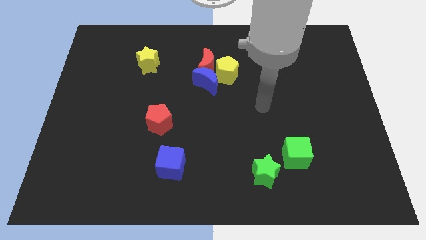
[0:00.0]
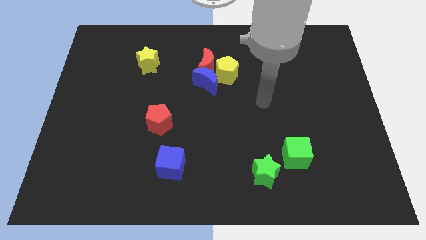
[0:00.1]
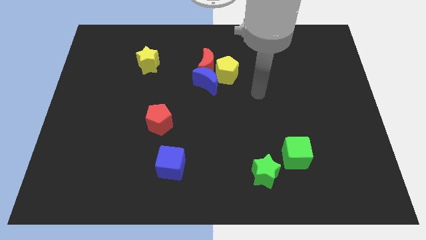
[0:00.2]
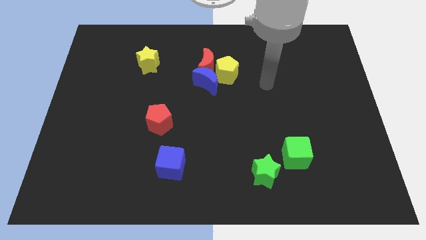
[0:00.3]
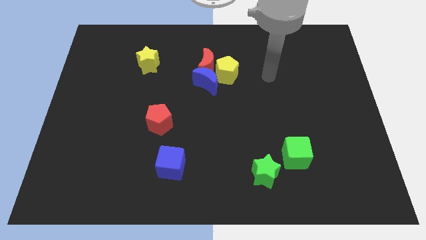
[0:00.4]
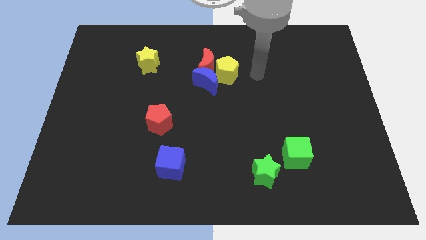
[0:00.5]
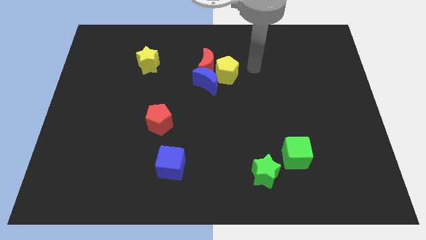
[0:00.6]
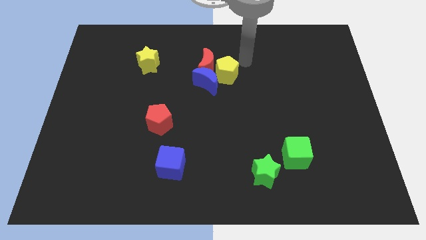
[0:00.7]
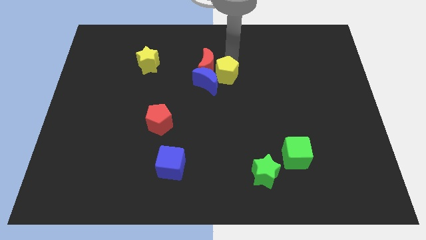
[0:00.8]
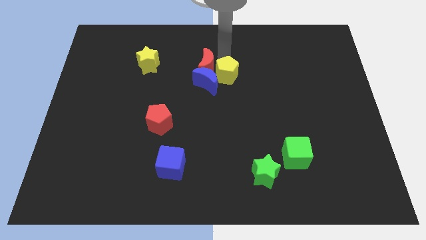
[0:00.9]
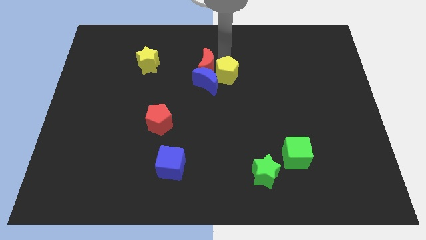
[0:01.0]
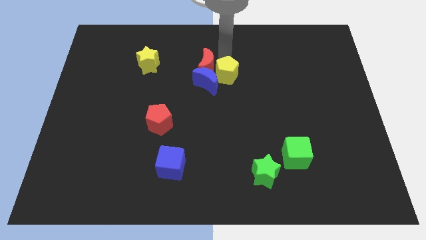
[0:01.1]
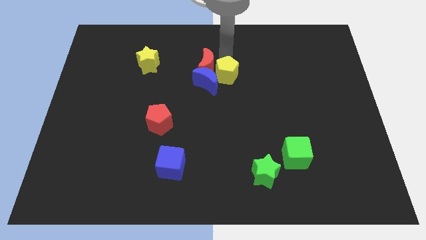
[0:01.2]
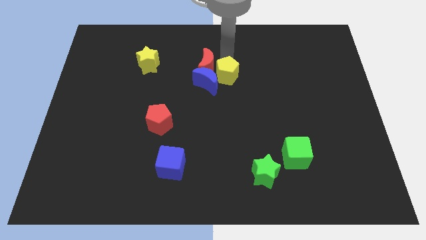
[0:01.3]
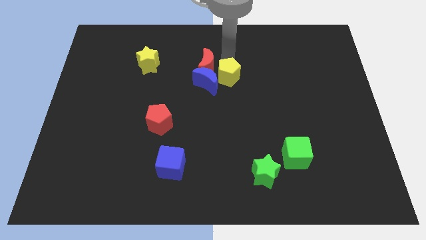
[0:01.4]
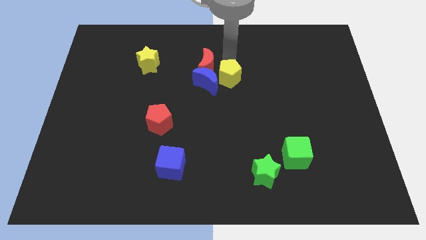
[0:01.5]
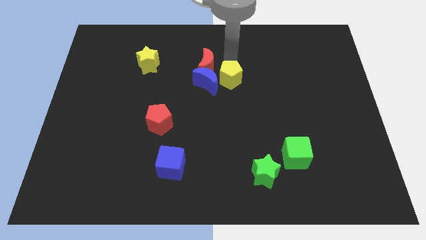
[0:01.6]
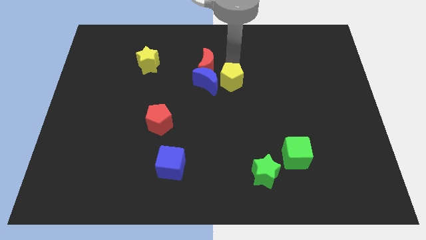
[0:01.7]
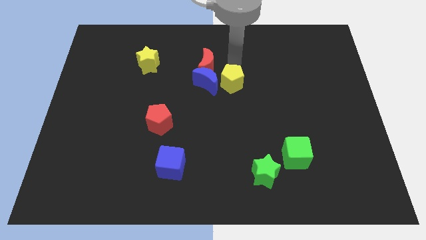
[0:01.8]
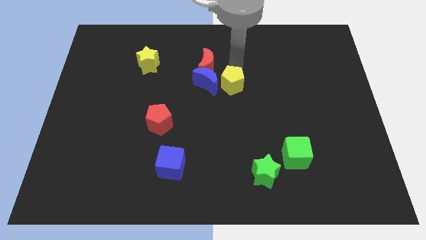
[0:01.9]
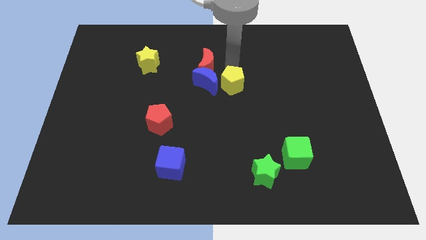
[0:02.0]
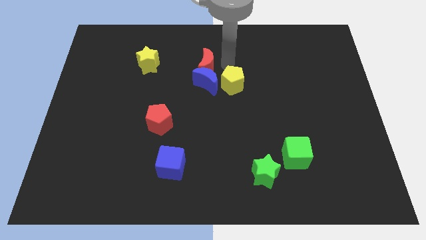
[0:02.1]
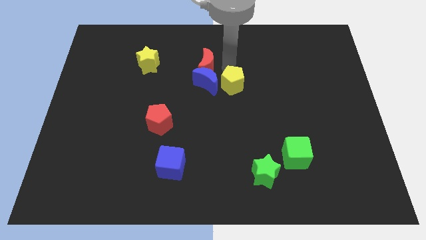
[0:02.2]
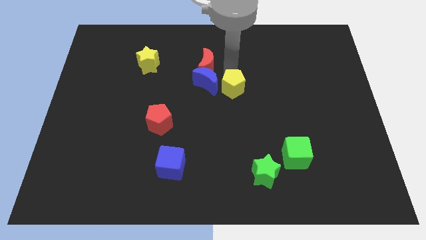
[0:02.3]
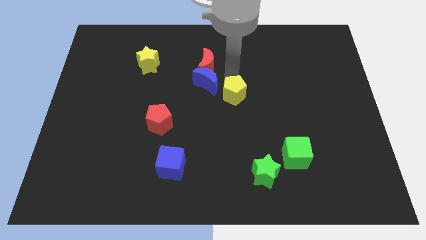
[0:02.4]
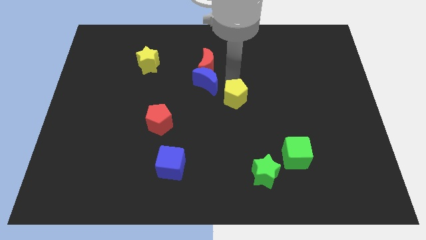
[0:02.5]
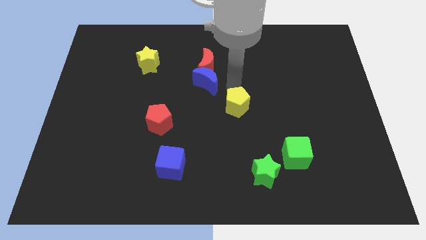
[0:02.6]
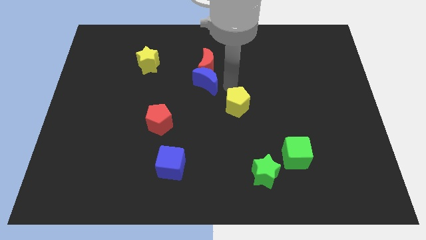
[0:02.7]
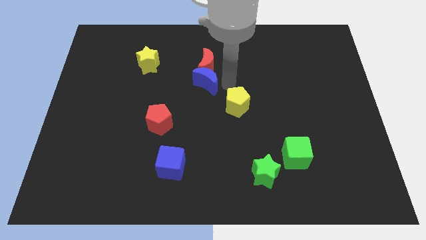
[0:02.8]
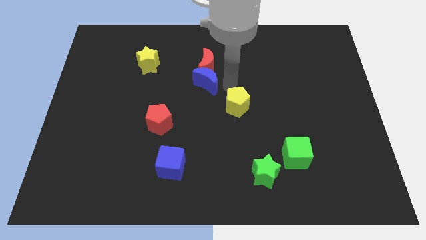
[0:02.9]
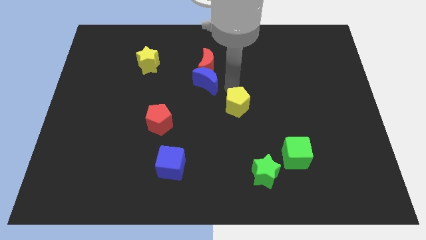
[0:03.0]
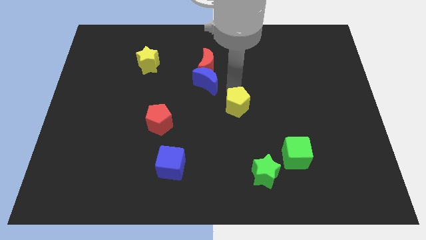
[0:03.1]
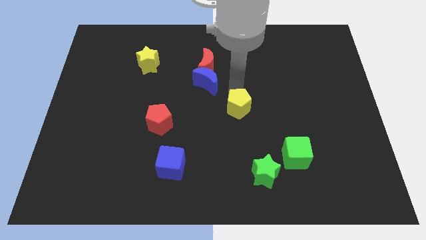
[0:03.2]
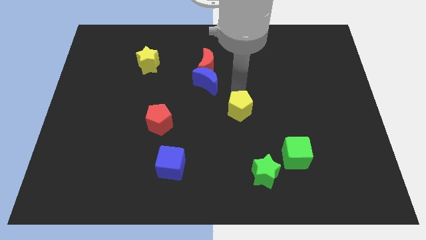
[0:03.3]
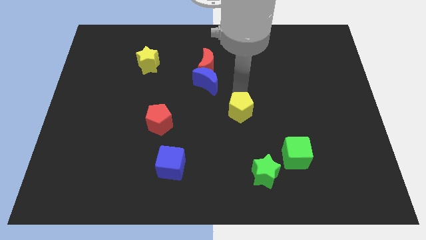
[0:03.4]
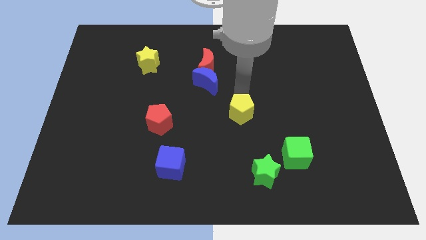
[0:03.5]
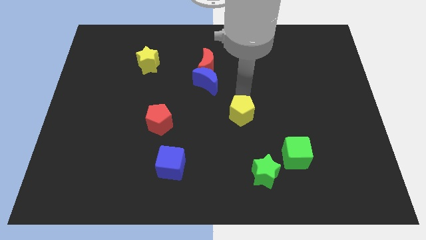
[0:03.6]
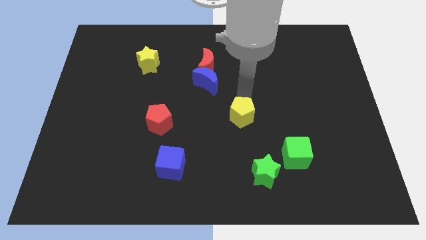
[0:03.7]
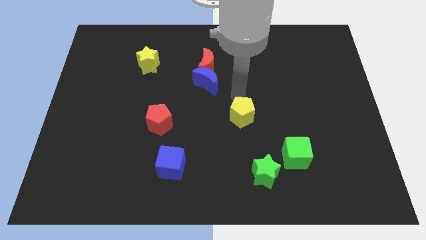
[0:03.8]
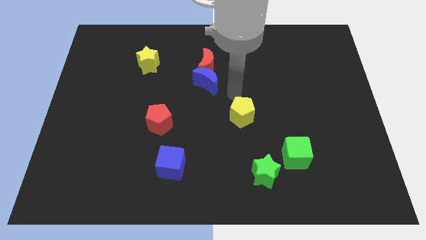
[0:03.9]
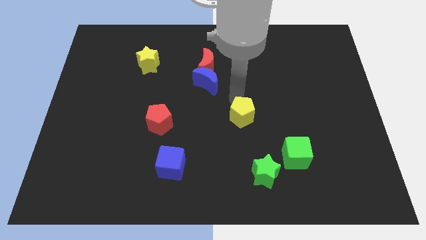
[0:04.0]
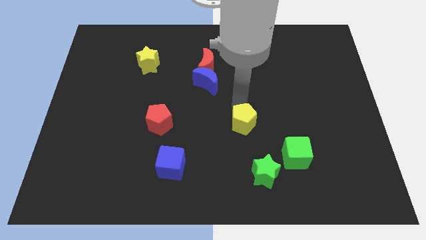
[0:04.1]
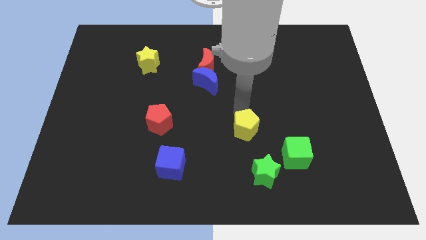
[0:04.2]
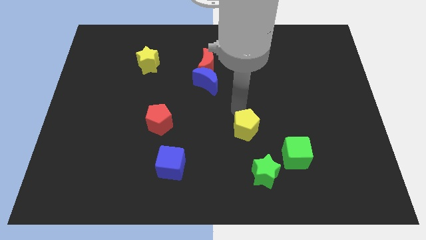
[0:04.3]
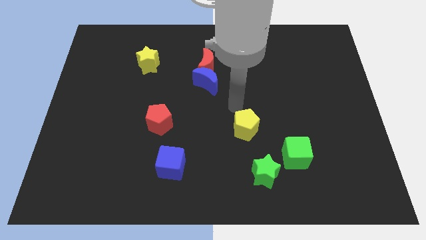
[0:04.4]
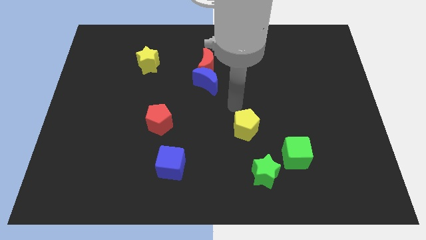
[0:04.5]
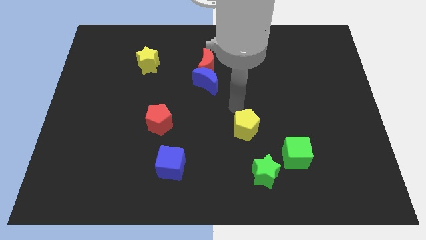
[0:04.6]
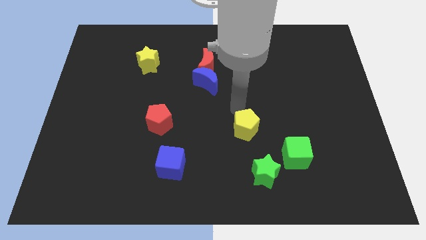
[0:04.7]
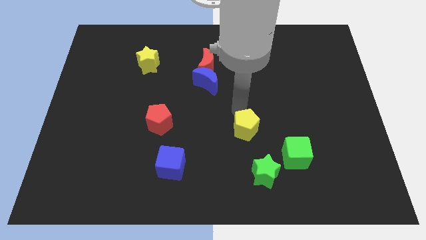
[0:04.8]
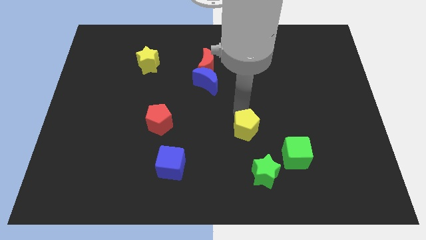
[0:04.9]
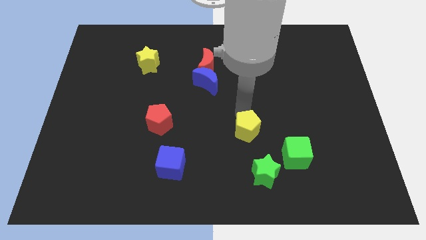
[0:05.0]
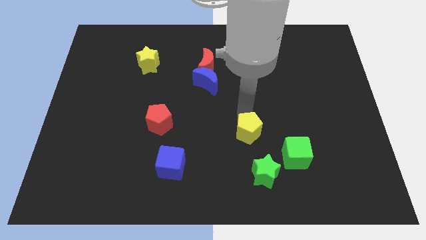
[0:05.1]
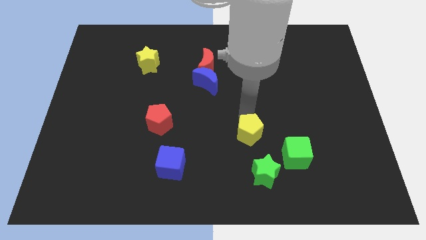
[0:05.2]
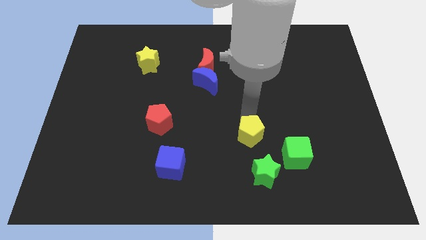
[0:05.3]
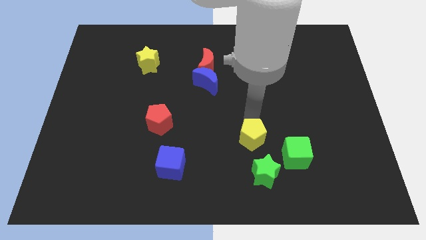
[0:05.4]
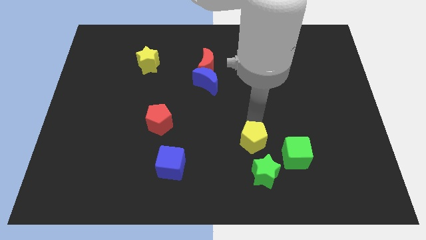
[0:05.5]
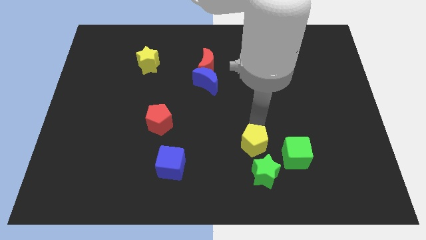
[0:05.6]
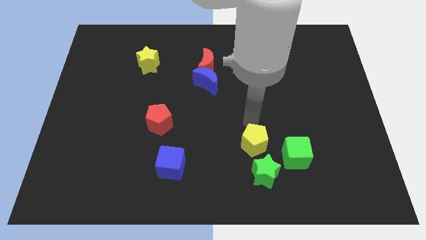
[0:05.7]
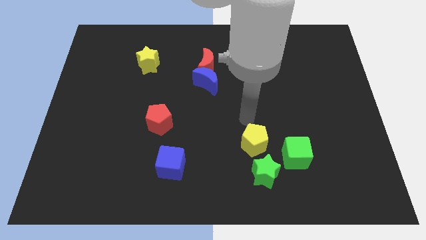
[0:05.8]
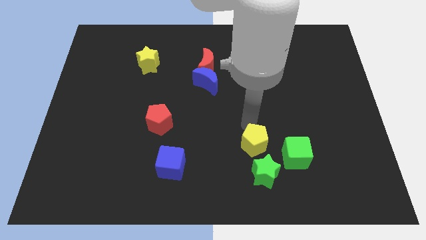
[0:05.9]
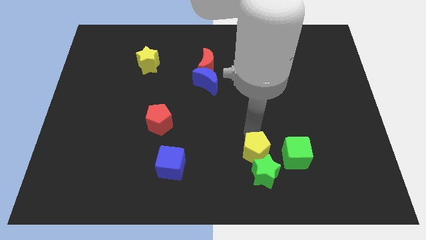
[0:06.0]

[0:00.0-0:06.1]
push the yellow pentagon next to the green star

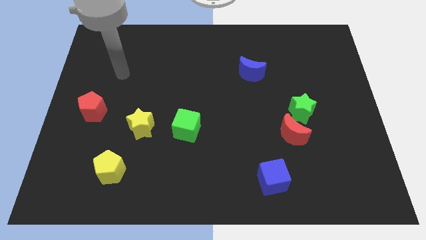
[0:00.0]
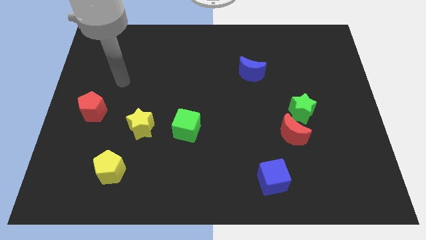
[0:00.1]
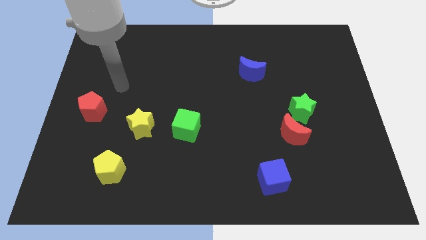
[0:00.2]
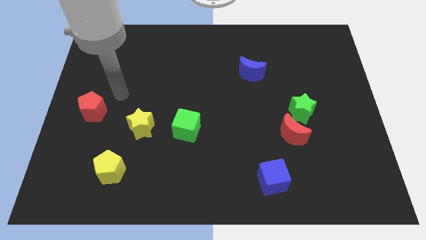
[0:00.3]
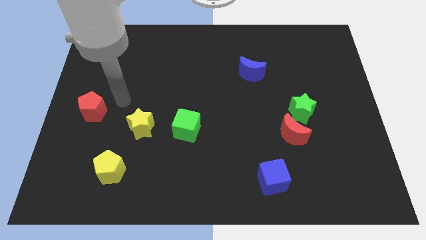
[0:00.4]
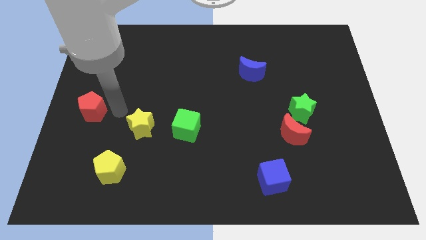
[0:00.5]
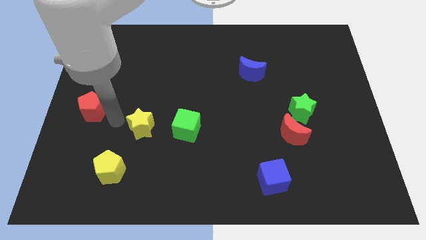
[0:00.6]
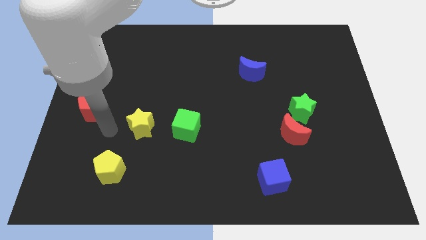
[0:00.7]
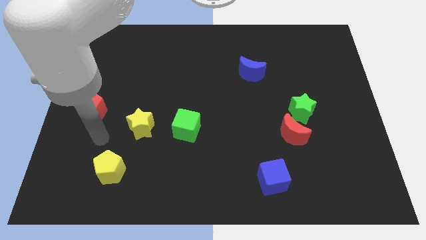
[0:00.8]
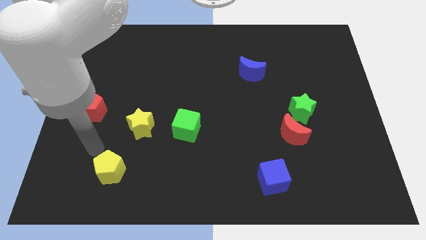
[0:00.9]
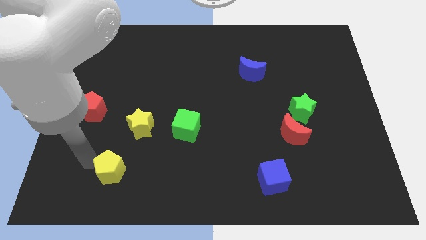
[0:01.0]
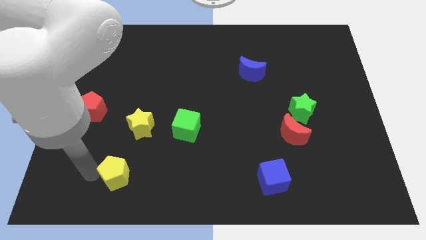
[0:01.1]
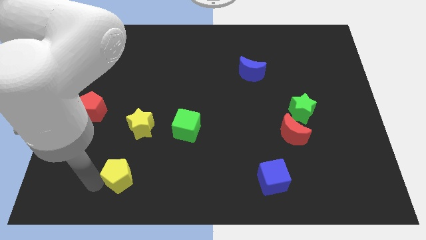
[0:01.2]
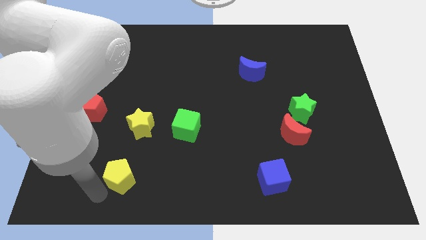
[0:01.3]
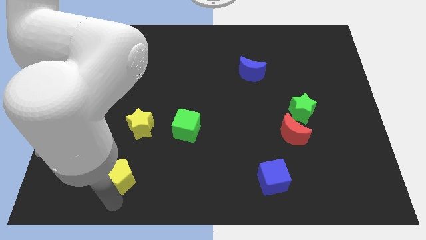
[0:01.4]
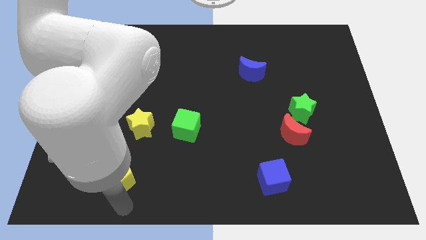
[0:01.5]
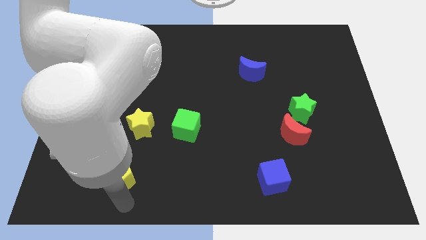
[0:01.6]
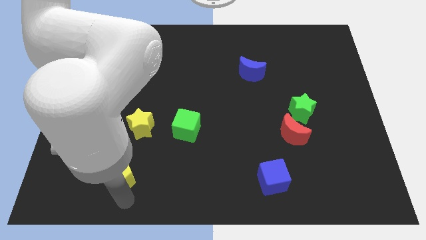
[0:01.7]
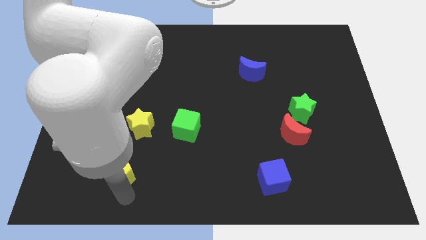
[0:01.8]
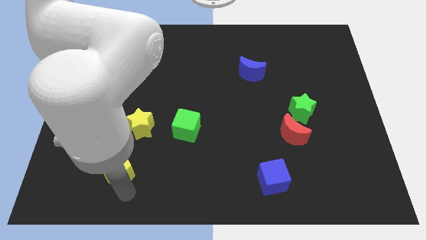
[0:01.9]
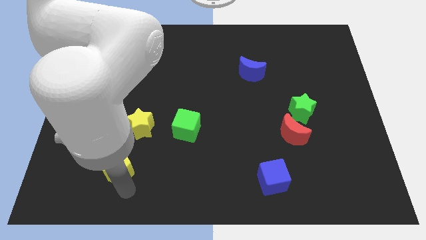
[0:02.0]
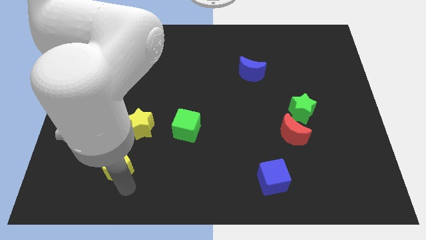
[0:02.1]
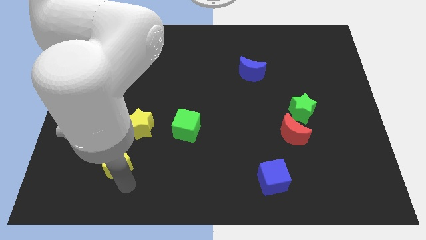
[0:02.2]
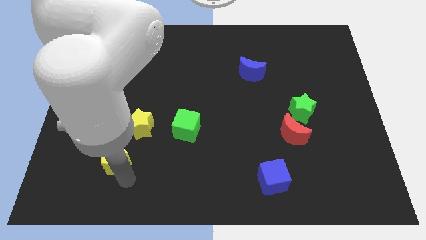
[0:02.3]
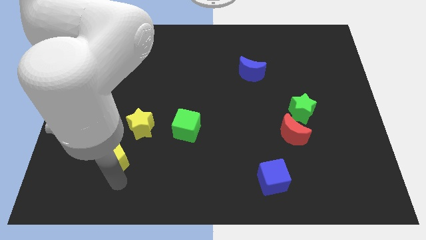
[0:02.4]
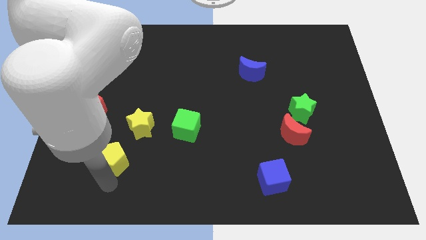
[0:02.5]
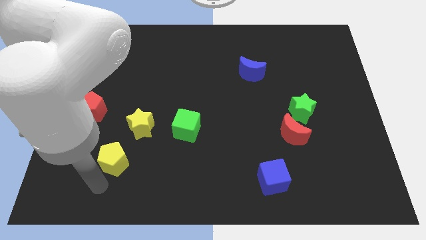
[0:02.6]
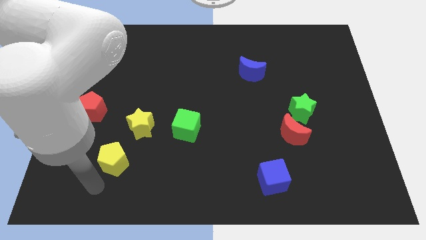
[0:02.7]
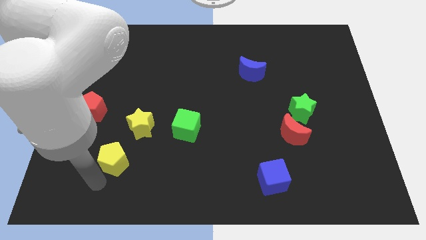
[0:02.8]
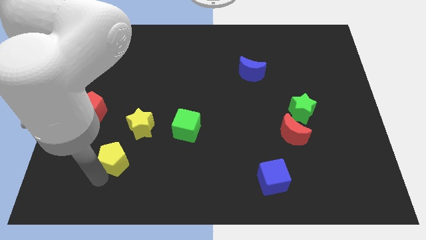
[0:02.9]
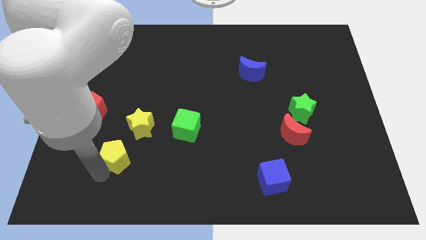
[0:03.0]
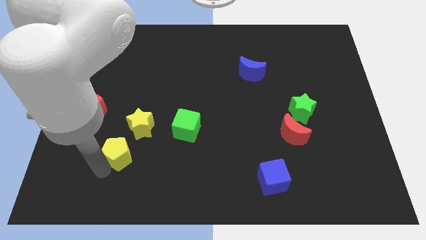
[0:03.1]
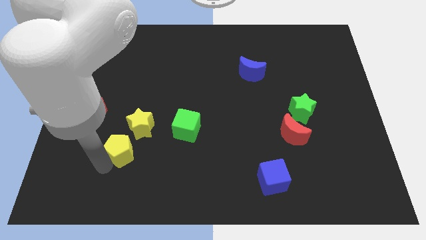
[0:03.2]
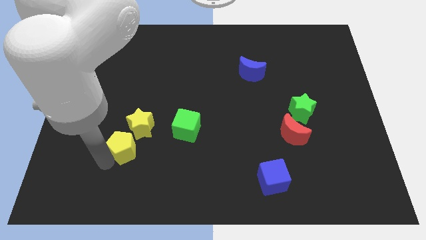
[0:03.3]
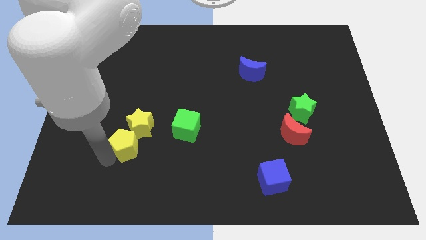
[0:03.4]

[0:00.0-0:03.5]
push the yellow pentagon close to the yellow star
